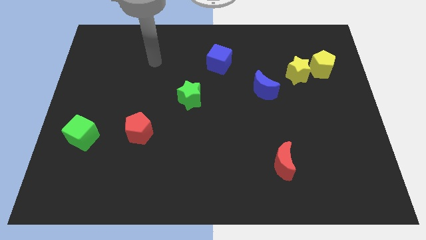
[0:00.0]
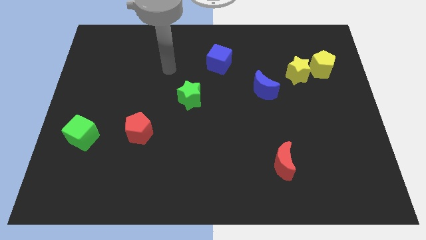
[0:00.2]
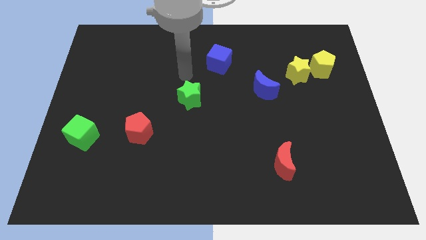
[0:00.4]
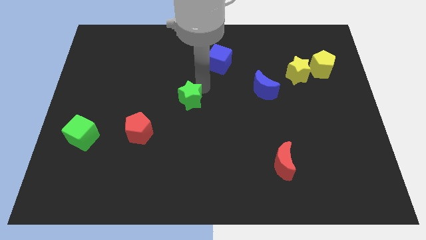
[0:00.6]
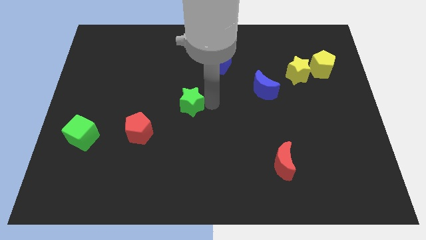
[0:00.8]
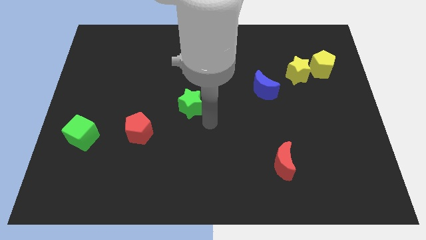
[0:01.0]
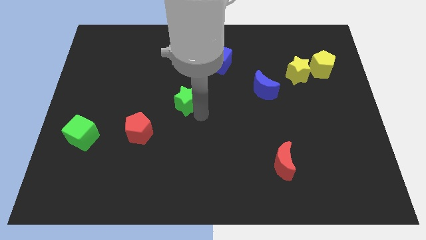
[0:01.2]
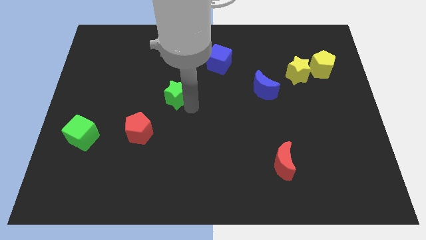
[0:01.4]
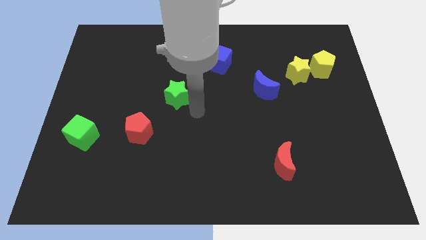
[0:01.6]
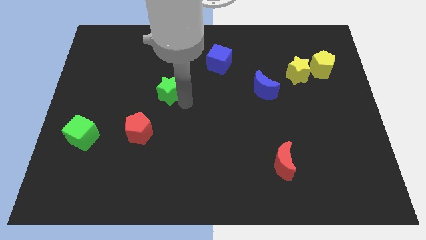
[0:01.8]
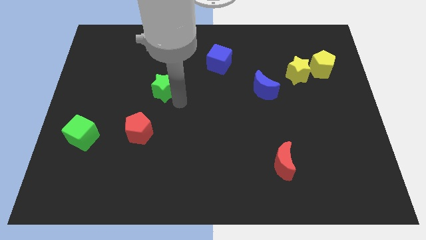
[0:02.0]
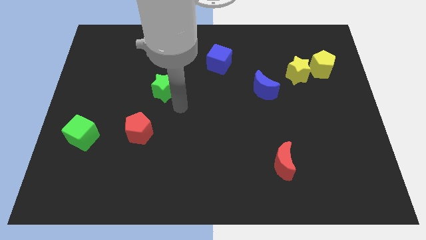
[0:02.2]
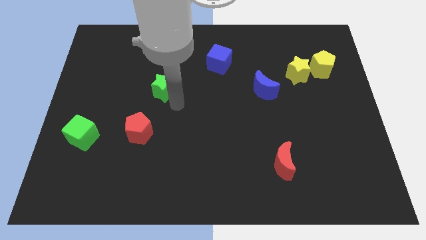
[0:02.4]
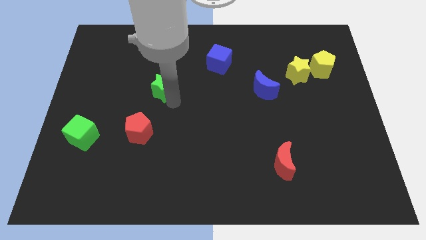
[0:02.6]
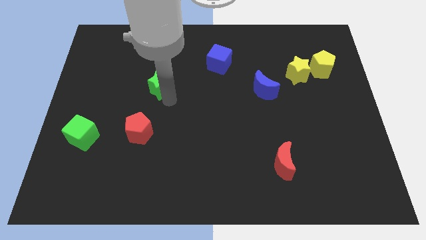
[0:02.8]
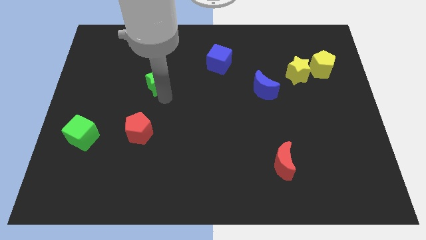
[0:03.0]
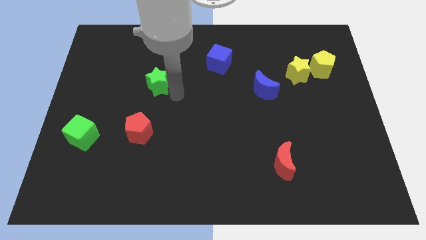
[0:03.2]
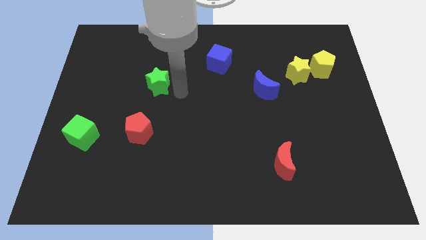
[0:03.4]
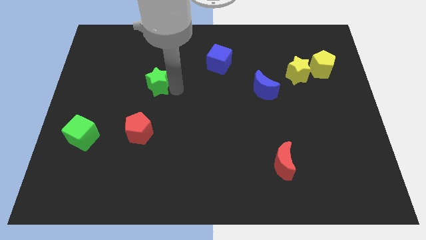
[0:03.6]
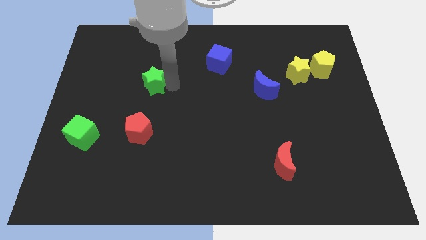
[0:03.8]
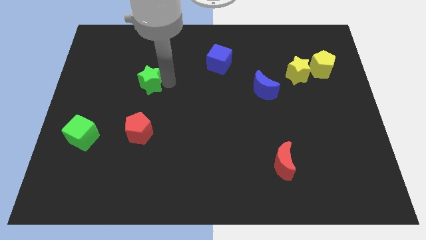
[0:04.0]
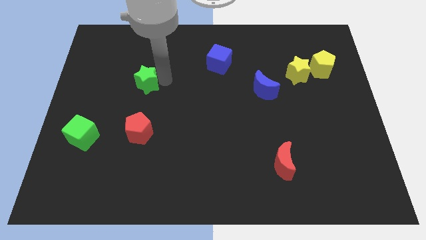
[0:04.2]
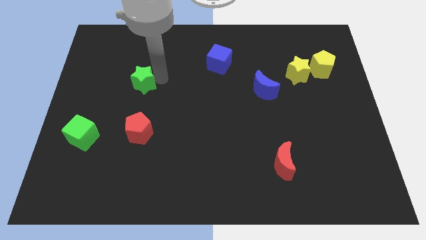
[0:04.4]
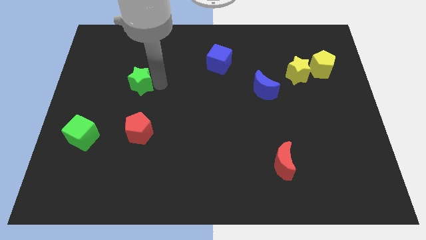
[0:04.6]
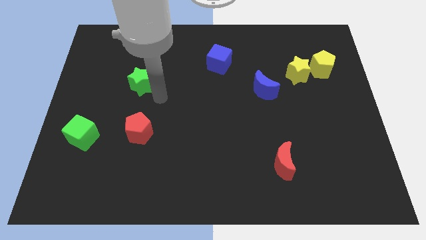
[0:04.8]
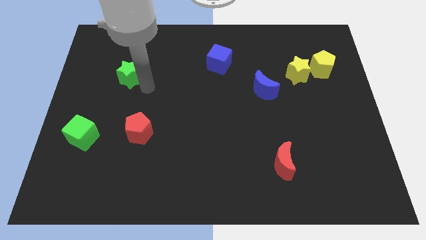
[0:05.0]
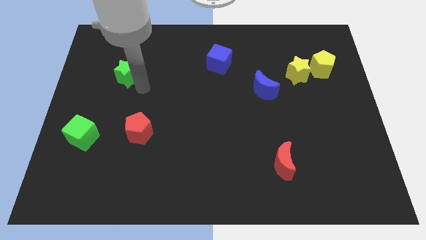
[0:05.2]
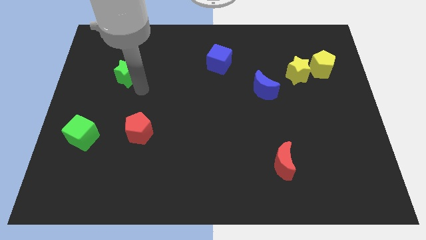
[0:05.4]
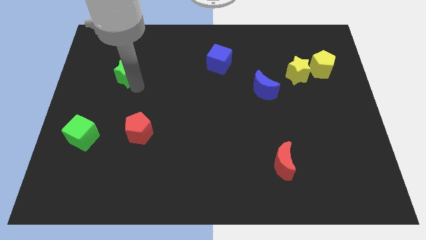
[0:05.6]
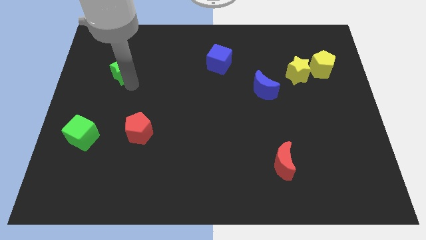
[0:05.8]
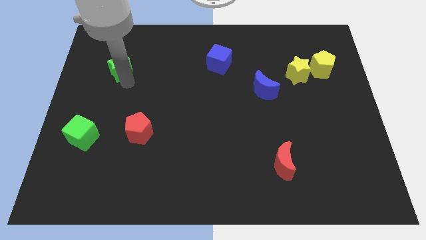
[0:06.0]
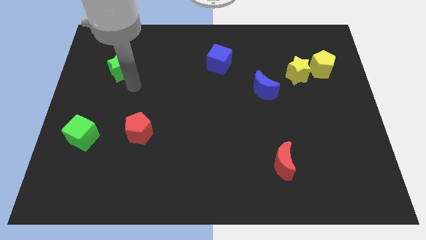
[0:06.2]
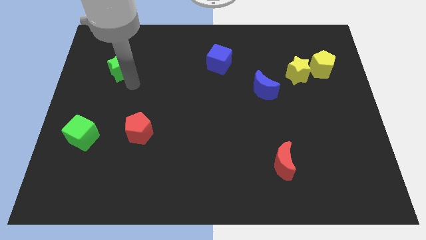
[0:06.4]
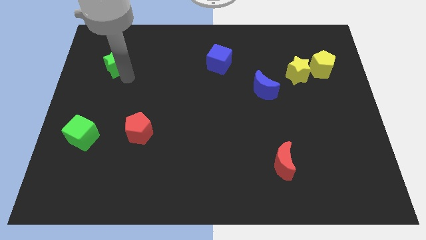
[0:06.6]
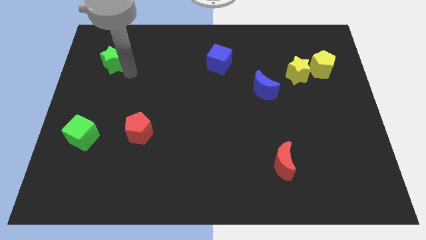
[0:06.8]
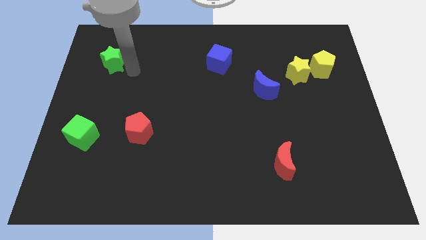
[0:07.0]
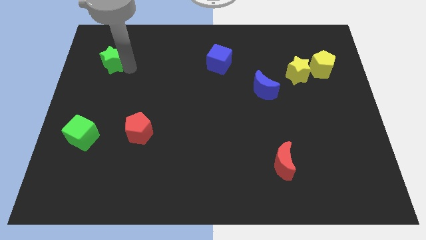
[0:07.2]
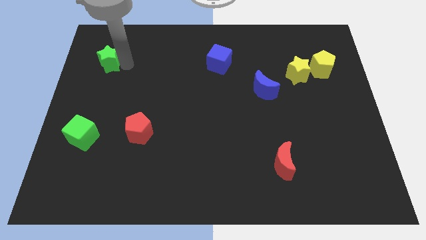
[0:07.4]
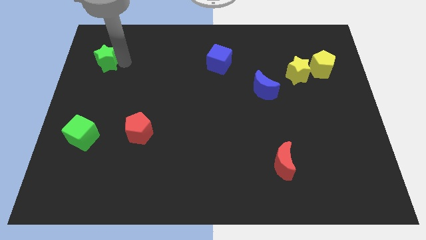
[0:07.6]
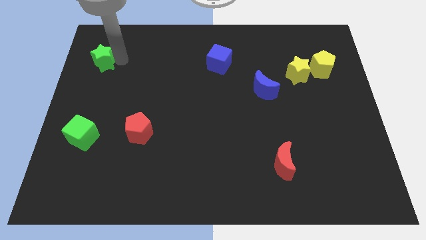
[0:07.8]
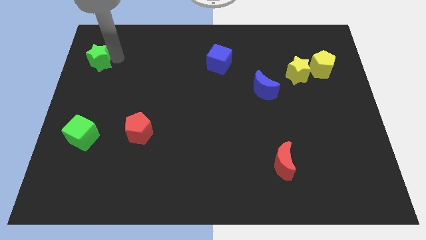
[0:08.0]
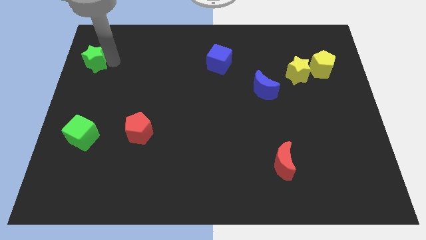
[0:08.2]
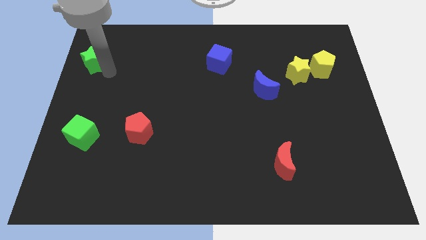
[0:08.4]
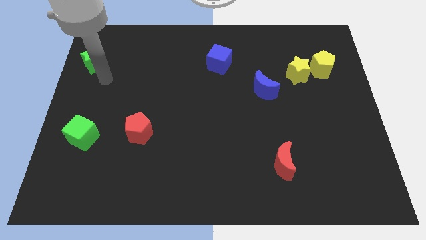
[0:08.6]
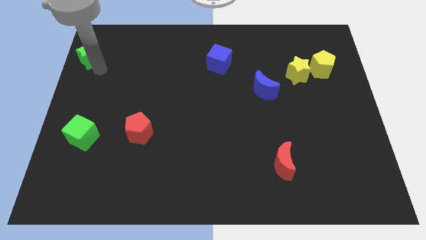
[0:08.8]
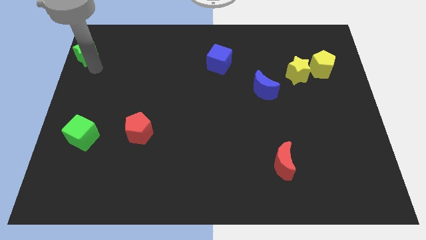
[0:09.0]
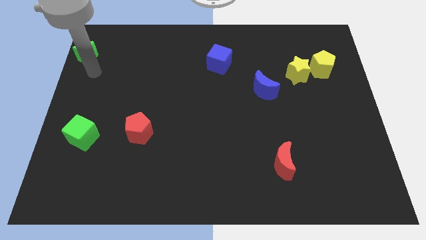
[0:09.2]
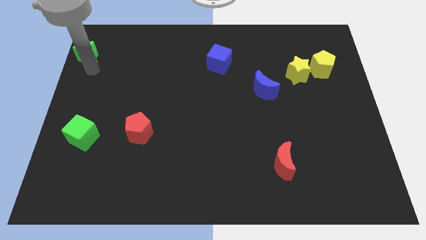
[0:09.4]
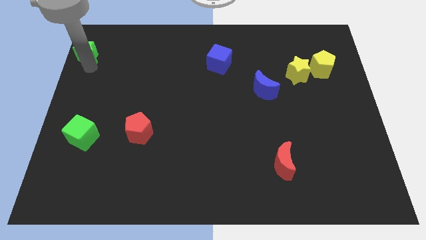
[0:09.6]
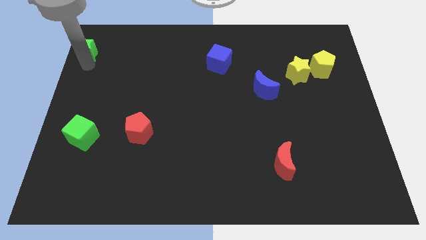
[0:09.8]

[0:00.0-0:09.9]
put the green star to the upper left corner

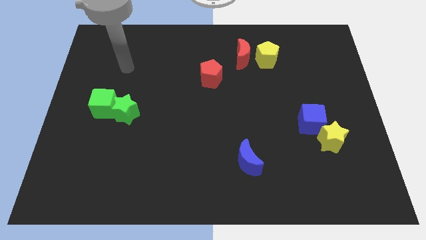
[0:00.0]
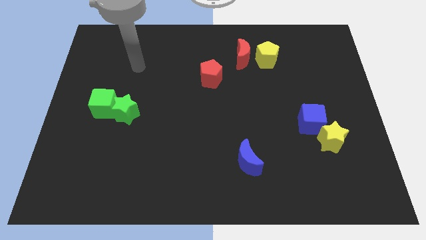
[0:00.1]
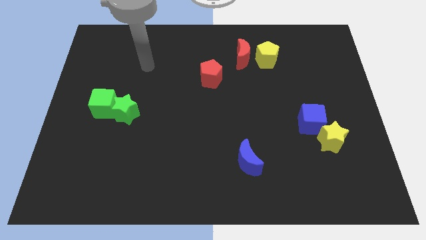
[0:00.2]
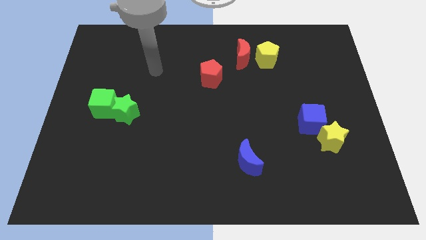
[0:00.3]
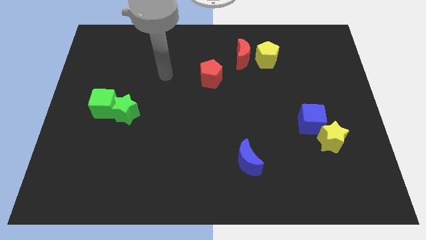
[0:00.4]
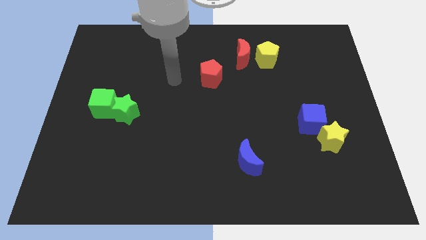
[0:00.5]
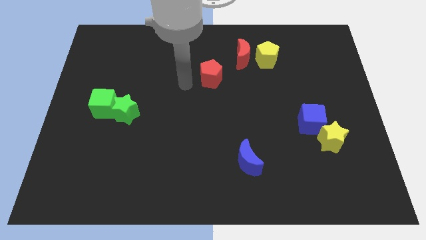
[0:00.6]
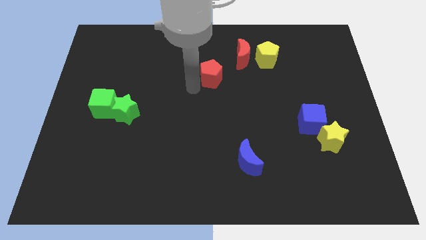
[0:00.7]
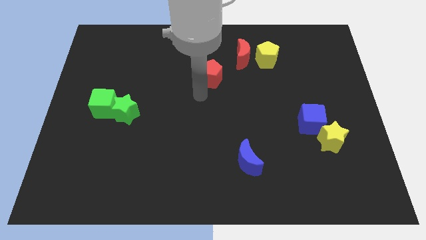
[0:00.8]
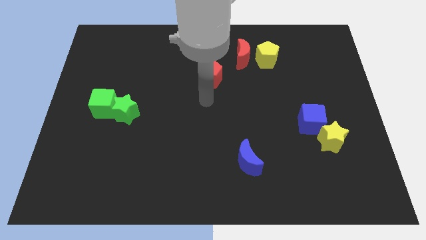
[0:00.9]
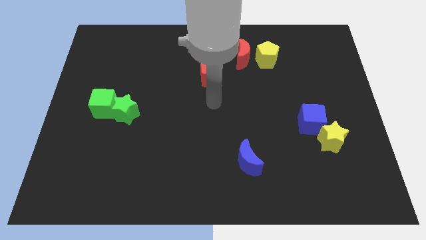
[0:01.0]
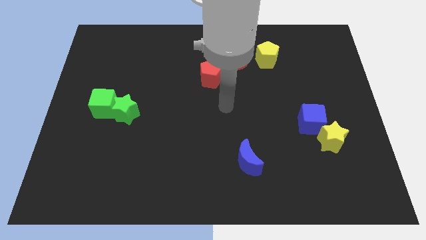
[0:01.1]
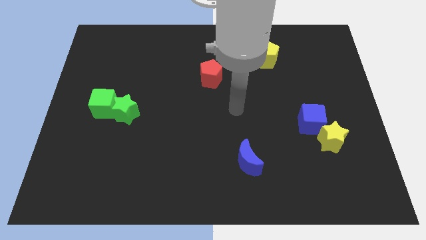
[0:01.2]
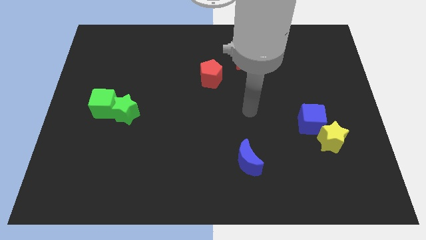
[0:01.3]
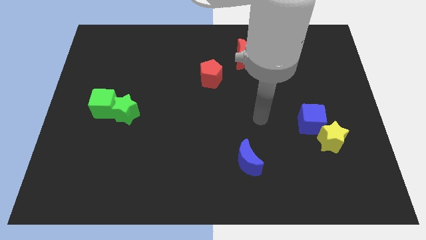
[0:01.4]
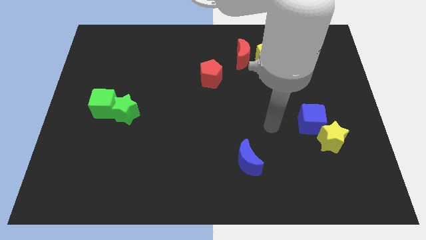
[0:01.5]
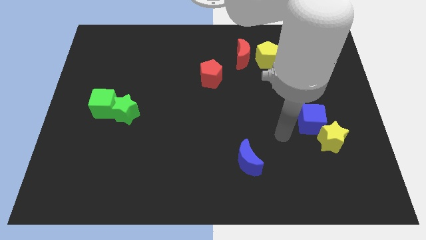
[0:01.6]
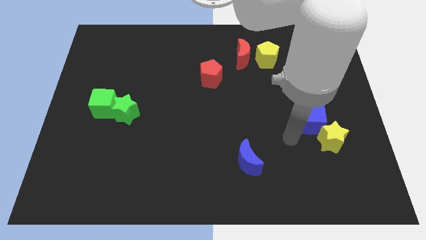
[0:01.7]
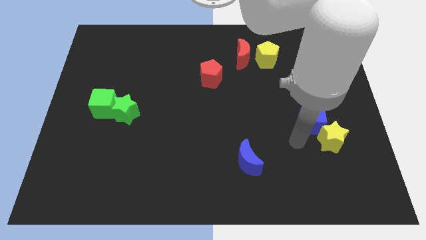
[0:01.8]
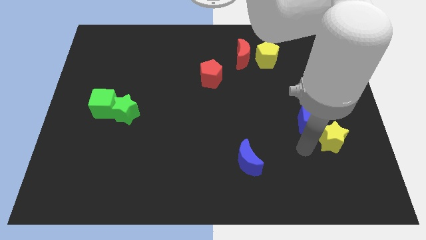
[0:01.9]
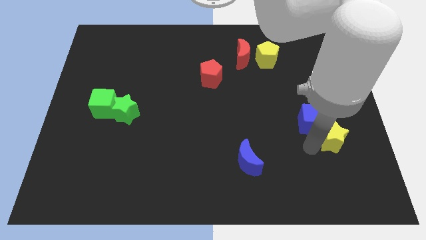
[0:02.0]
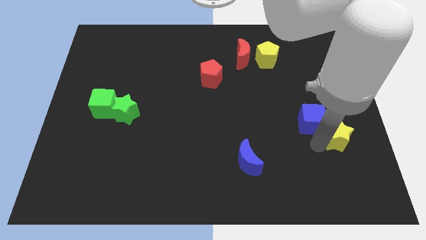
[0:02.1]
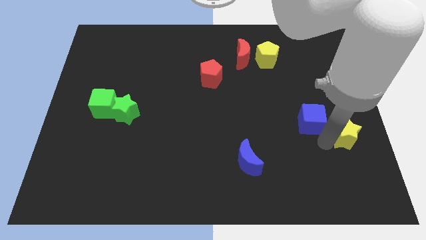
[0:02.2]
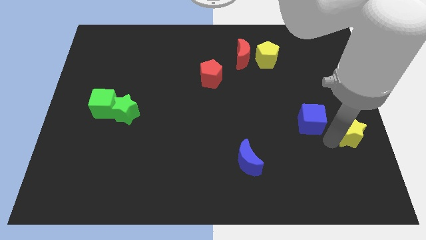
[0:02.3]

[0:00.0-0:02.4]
push the yellow star to the center right
